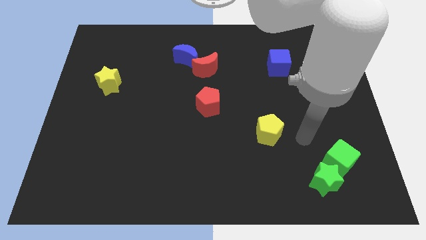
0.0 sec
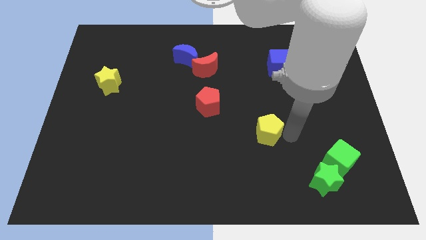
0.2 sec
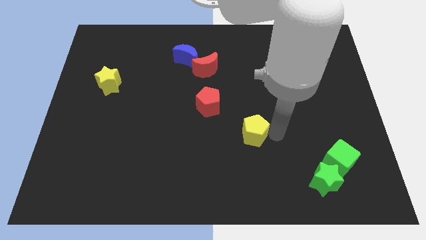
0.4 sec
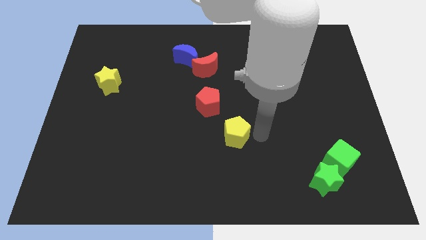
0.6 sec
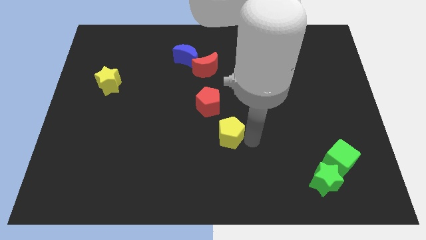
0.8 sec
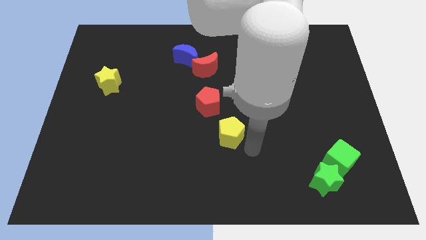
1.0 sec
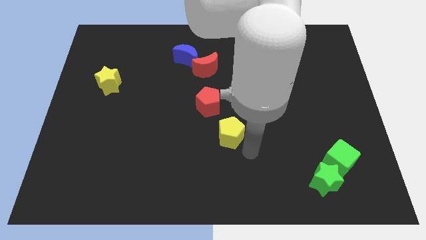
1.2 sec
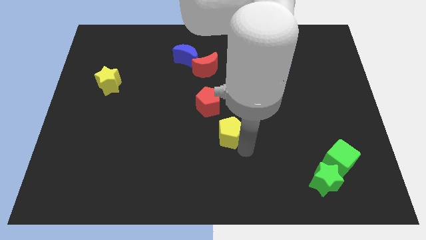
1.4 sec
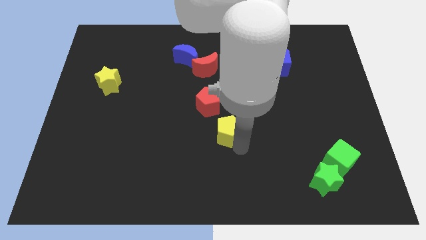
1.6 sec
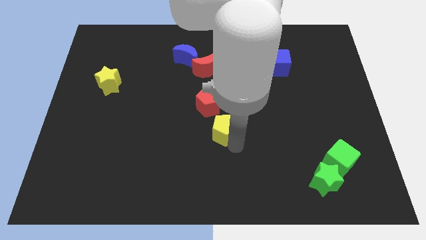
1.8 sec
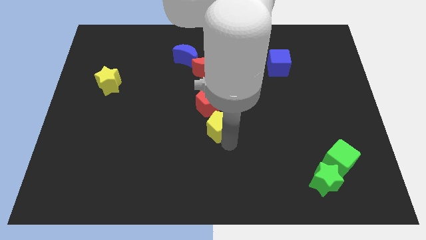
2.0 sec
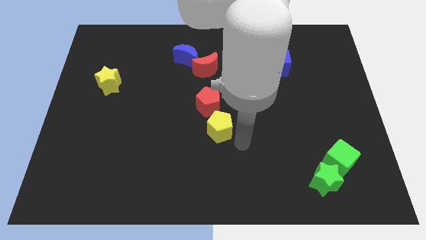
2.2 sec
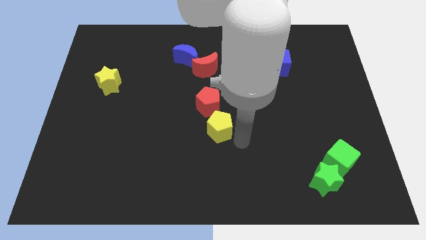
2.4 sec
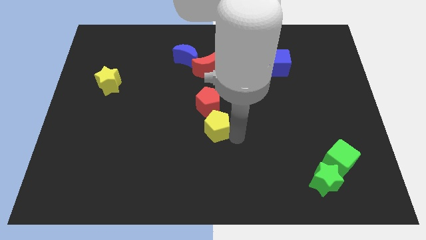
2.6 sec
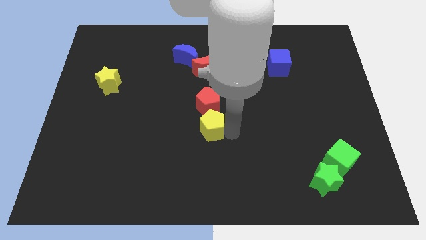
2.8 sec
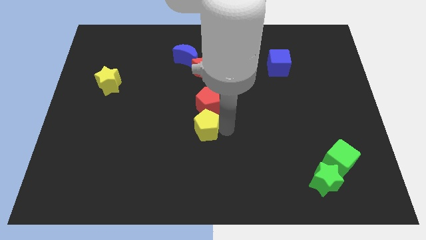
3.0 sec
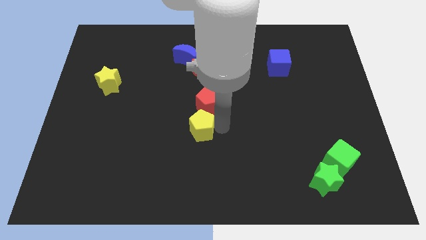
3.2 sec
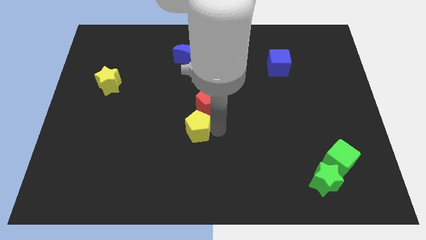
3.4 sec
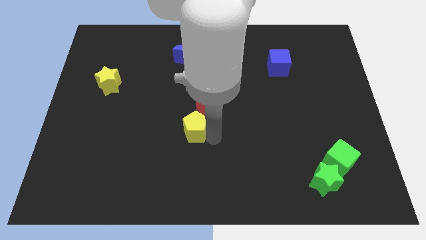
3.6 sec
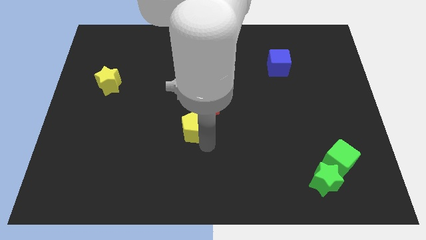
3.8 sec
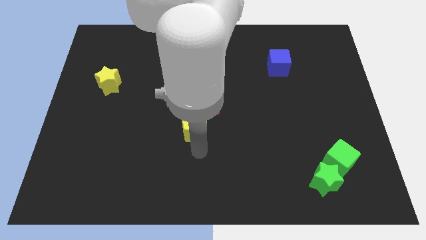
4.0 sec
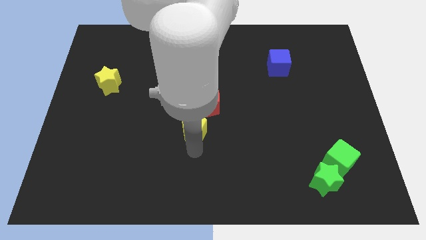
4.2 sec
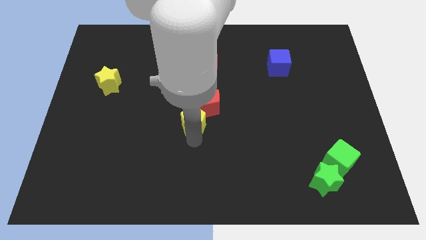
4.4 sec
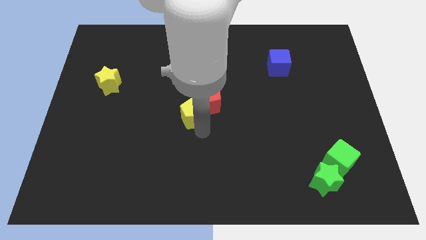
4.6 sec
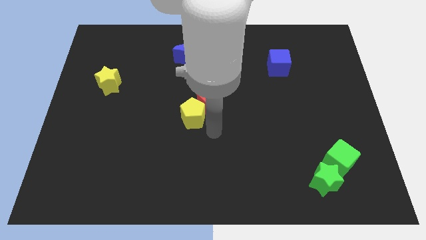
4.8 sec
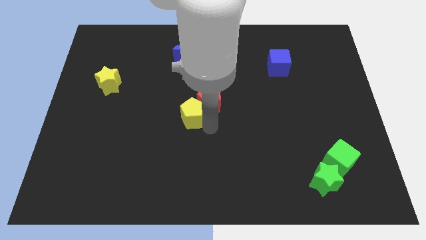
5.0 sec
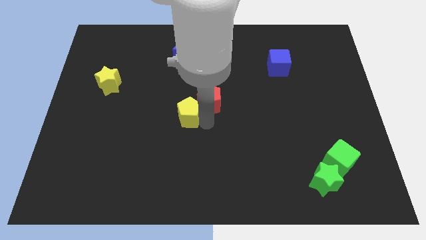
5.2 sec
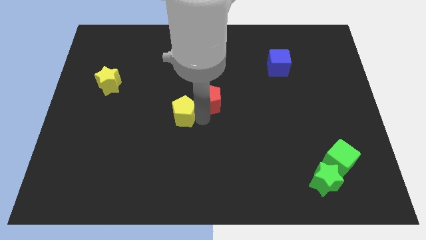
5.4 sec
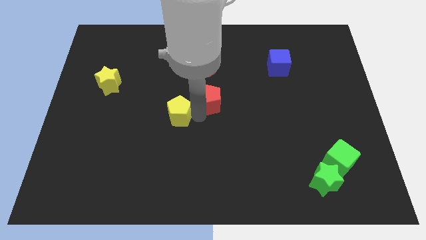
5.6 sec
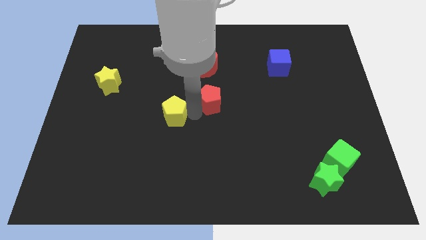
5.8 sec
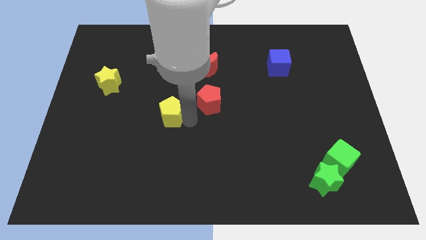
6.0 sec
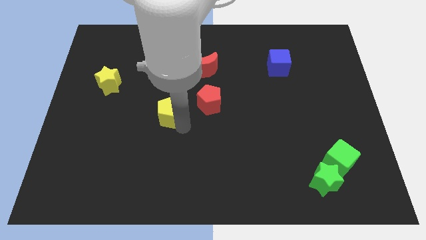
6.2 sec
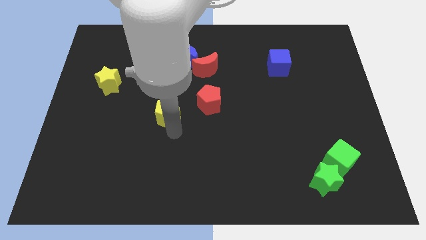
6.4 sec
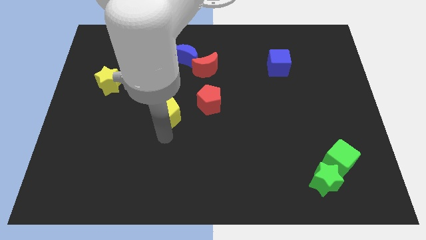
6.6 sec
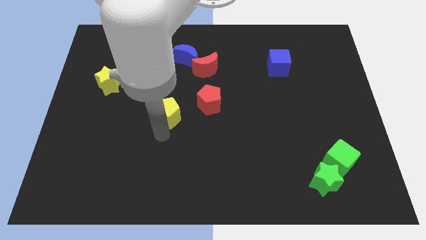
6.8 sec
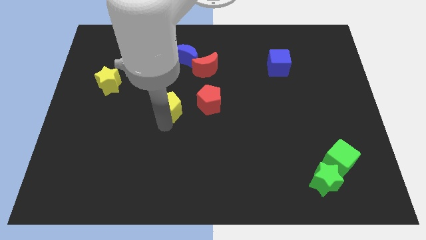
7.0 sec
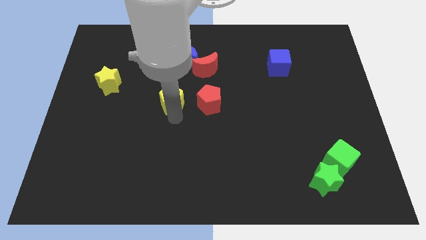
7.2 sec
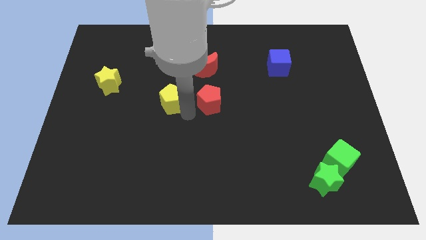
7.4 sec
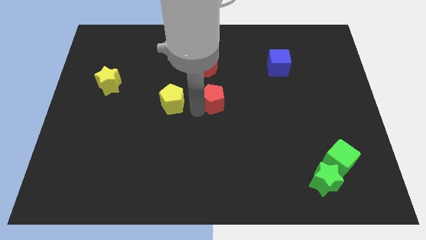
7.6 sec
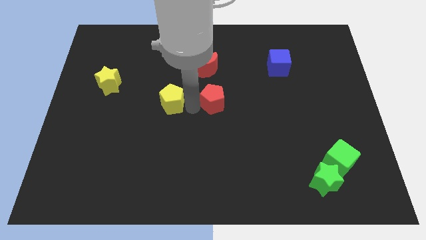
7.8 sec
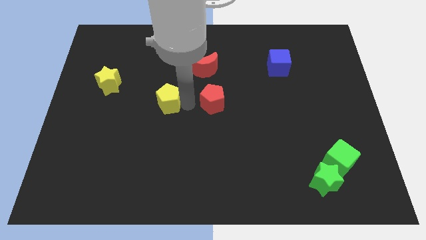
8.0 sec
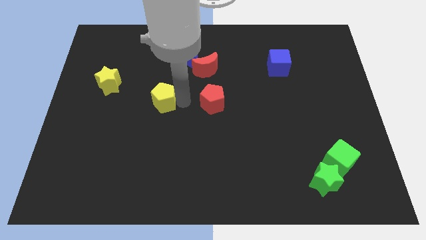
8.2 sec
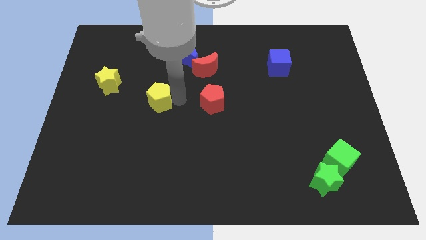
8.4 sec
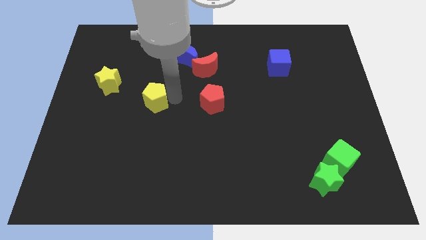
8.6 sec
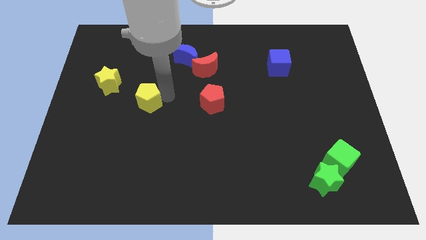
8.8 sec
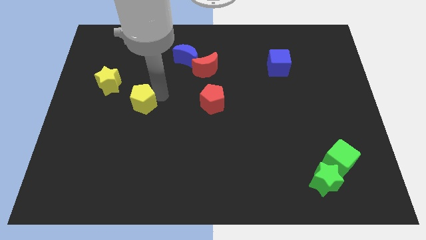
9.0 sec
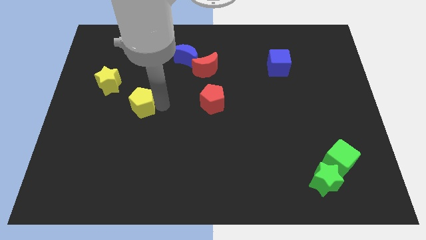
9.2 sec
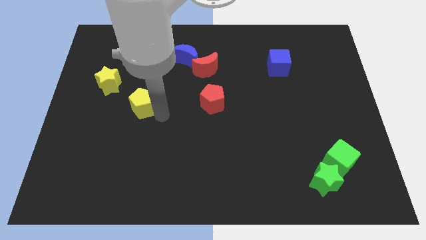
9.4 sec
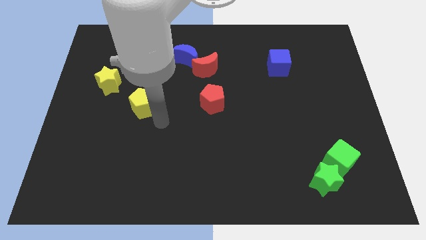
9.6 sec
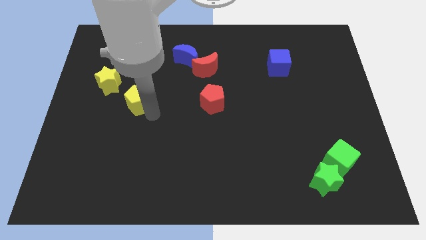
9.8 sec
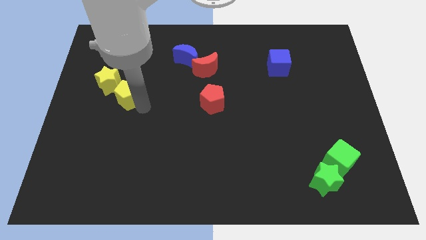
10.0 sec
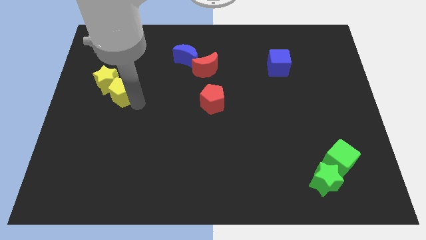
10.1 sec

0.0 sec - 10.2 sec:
put the yellow pentagon to the yellow star

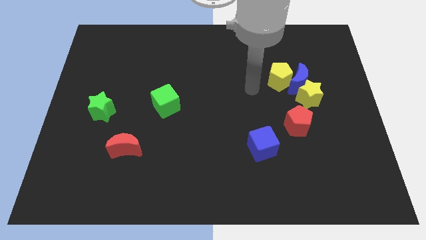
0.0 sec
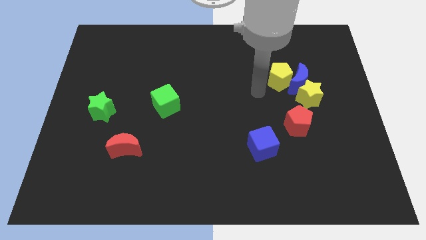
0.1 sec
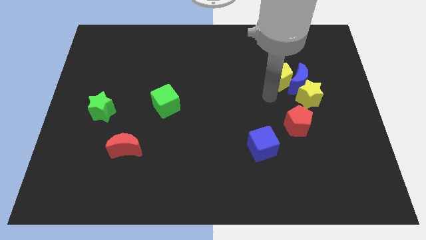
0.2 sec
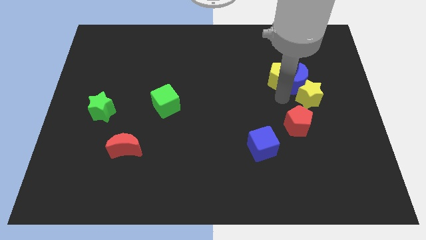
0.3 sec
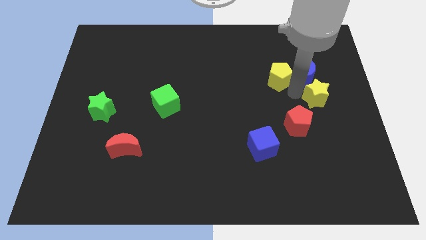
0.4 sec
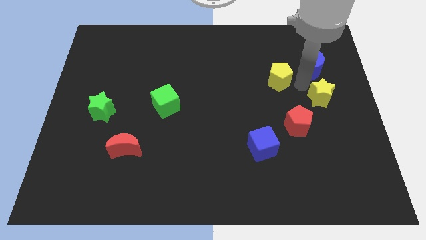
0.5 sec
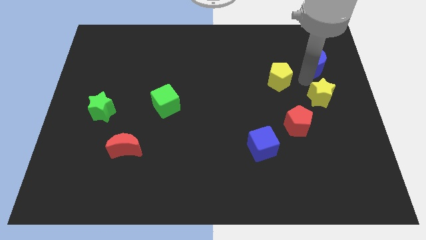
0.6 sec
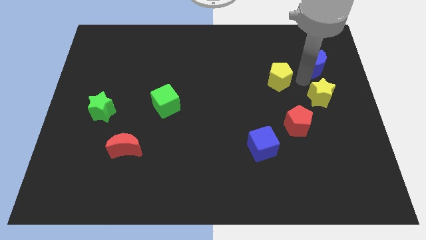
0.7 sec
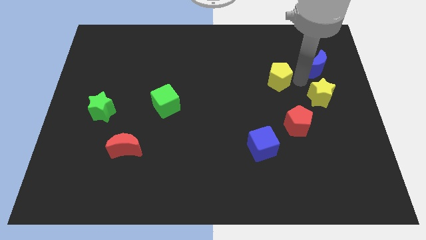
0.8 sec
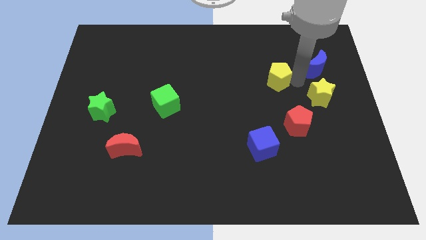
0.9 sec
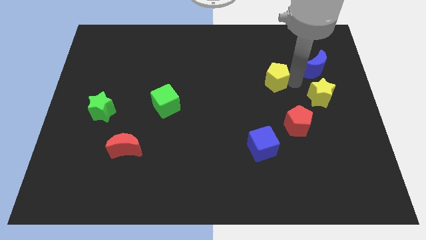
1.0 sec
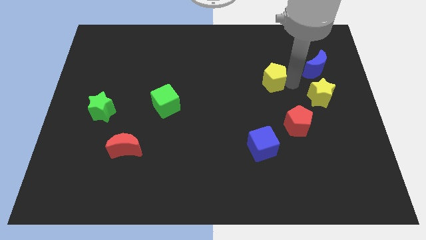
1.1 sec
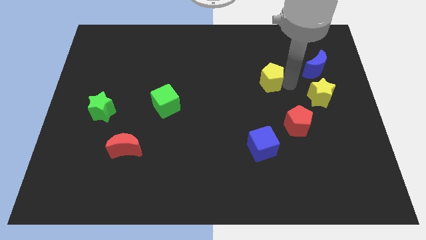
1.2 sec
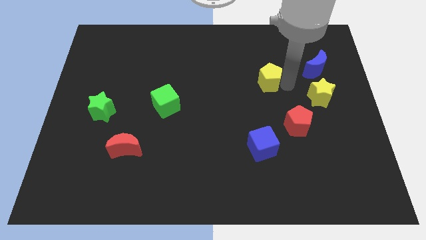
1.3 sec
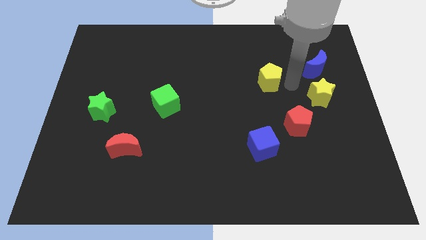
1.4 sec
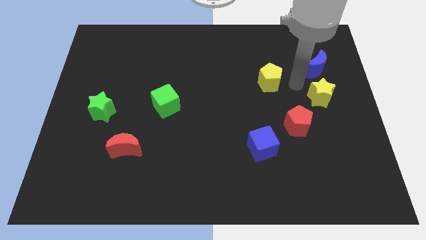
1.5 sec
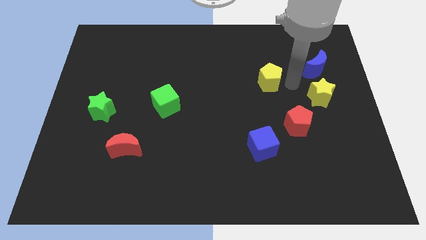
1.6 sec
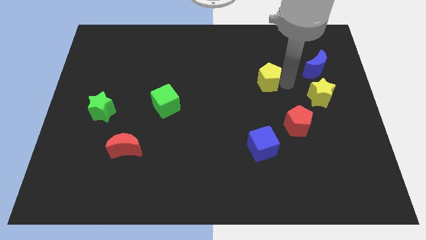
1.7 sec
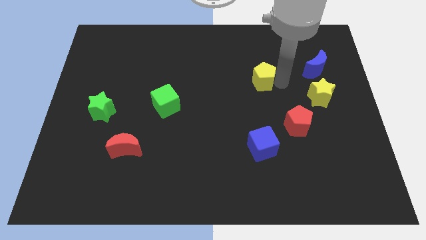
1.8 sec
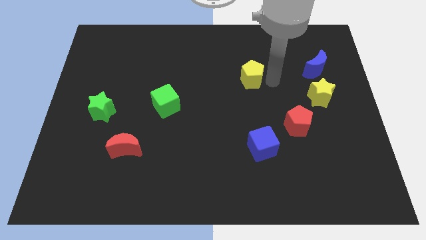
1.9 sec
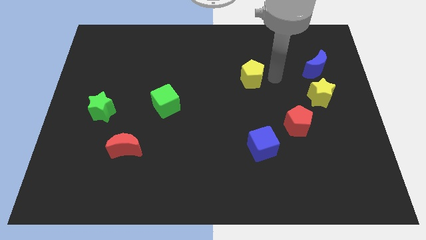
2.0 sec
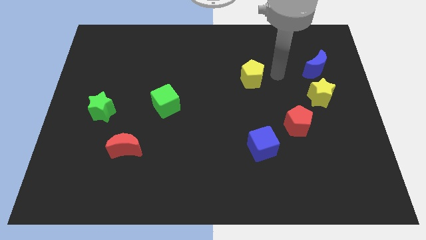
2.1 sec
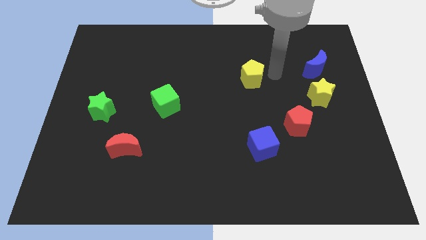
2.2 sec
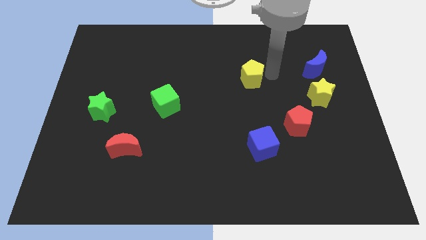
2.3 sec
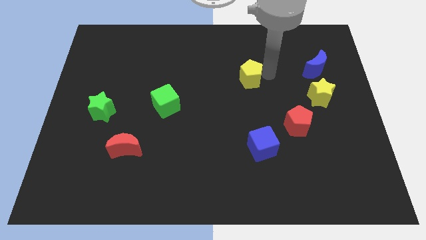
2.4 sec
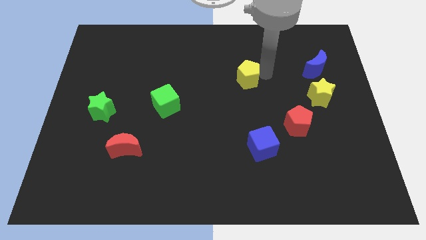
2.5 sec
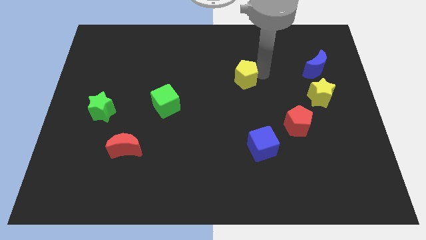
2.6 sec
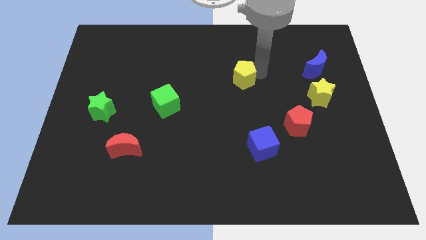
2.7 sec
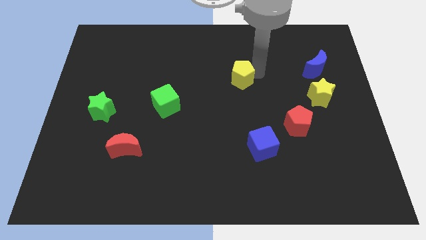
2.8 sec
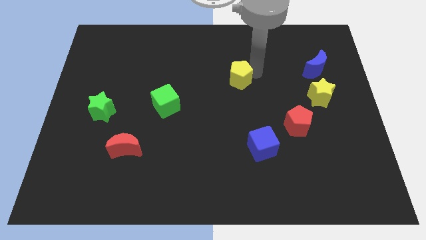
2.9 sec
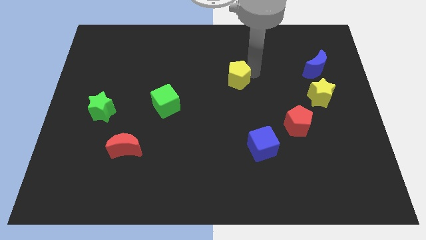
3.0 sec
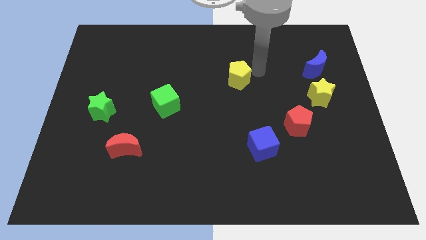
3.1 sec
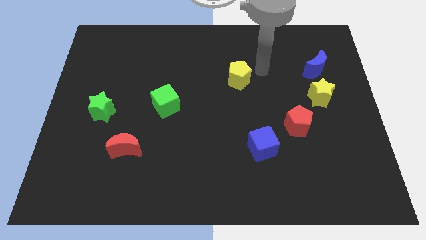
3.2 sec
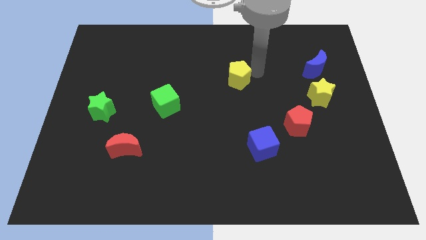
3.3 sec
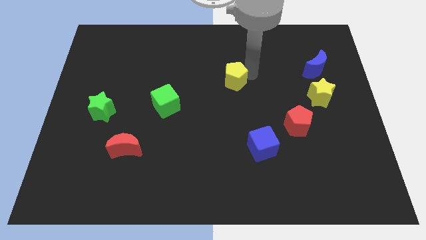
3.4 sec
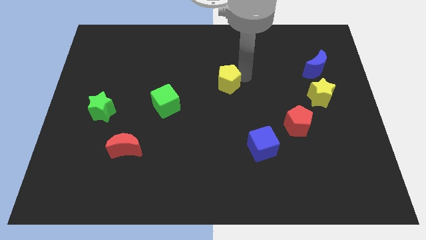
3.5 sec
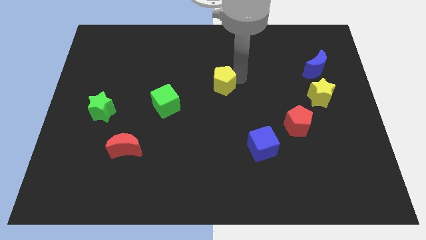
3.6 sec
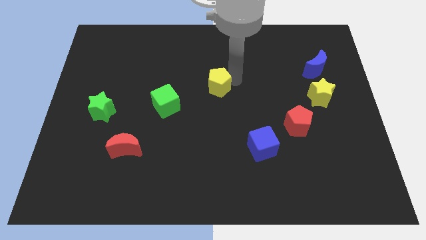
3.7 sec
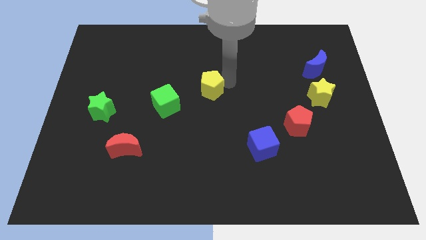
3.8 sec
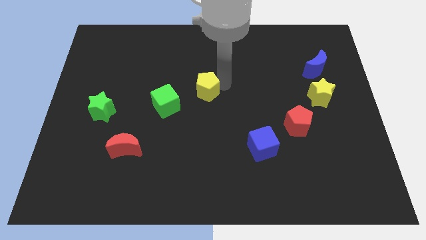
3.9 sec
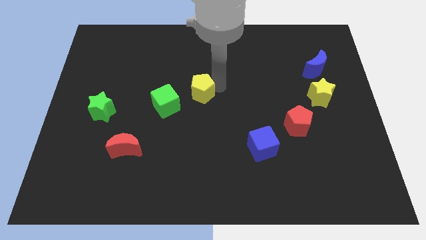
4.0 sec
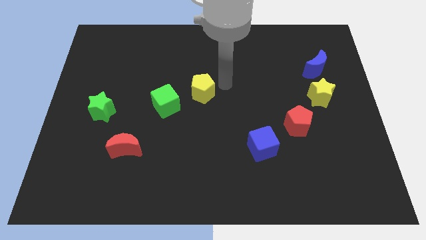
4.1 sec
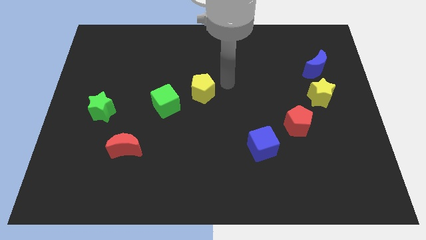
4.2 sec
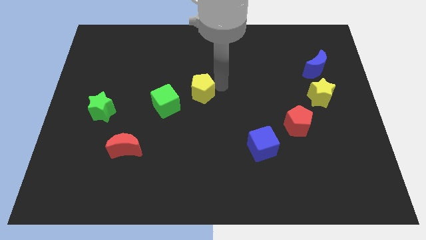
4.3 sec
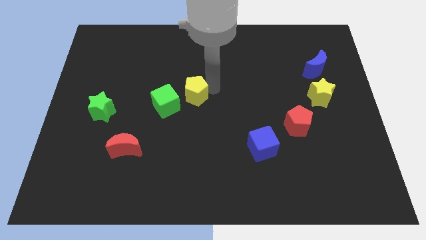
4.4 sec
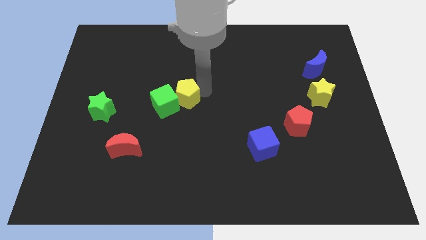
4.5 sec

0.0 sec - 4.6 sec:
slide the yellow pentagon close to the green cube
